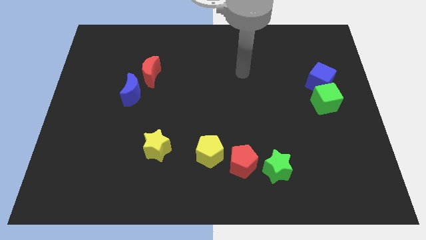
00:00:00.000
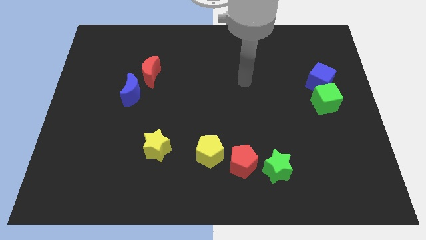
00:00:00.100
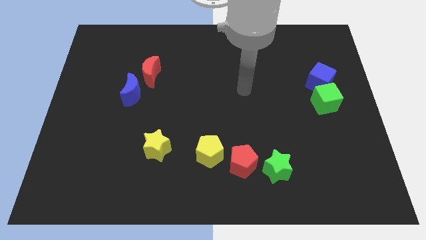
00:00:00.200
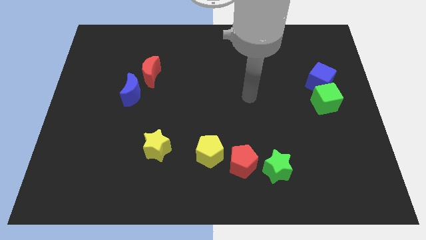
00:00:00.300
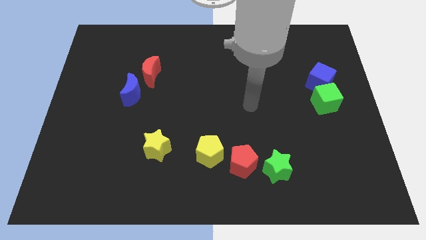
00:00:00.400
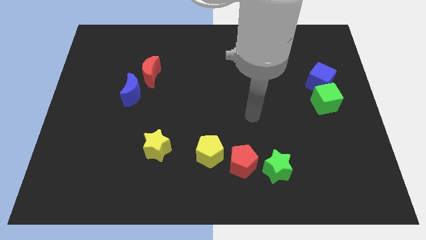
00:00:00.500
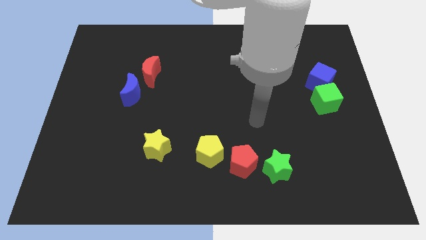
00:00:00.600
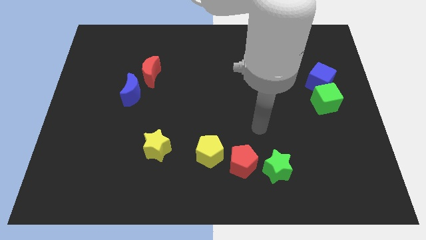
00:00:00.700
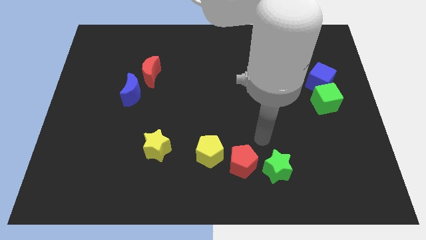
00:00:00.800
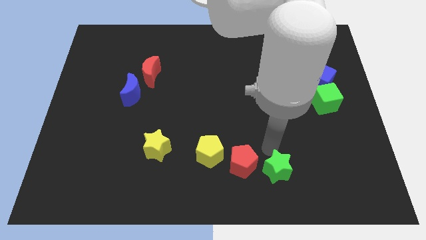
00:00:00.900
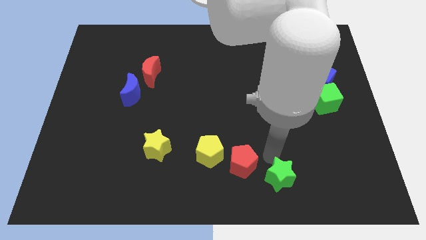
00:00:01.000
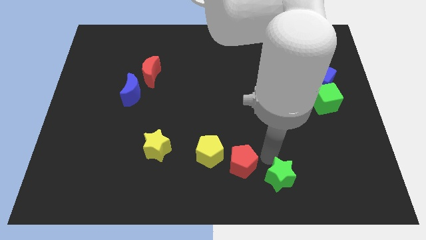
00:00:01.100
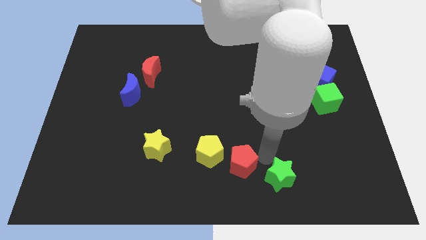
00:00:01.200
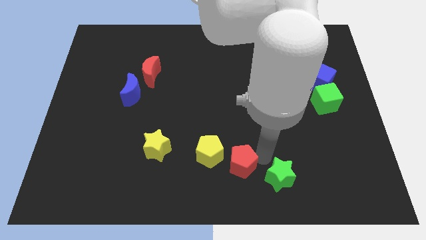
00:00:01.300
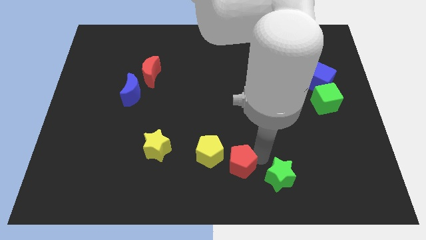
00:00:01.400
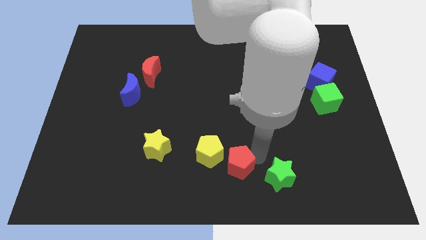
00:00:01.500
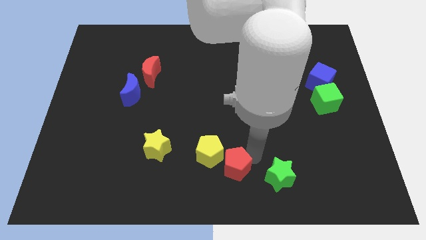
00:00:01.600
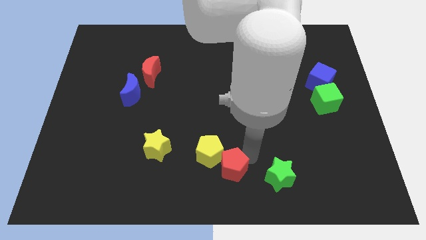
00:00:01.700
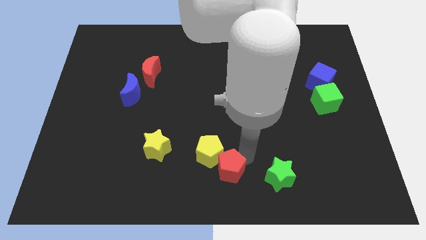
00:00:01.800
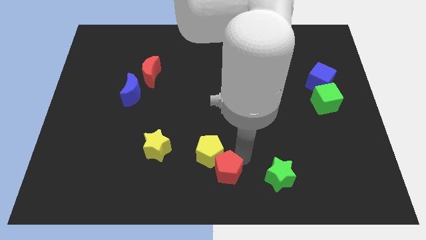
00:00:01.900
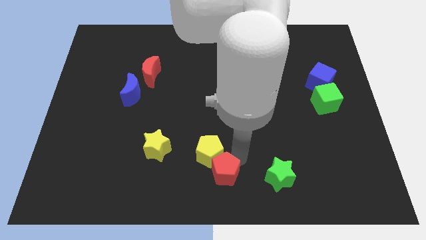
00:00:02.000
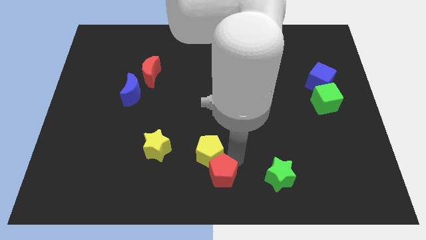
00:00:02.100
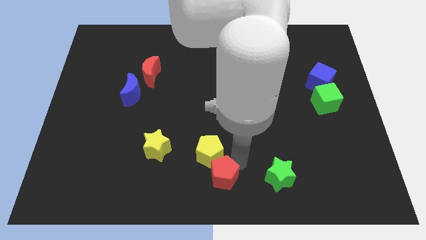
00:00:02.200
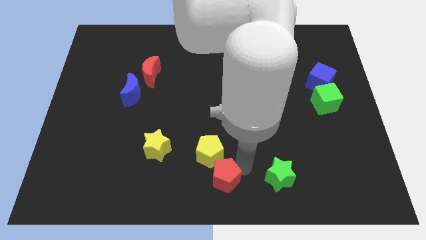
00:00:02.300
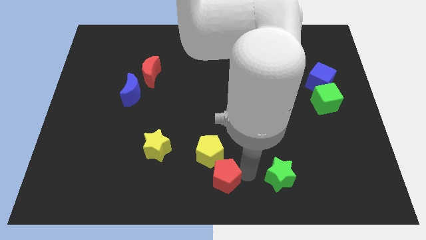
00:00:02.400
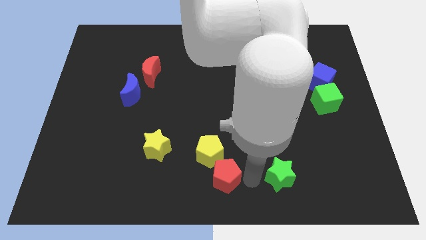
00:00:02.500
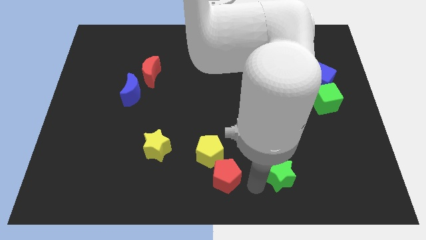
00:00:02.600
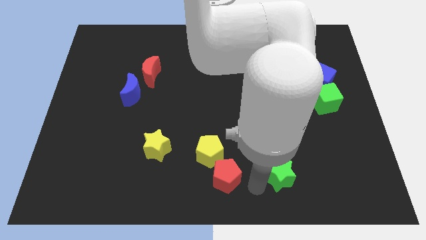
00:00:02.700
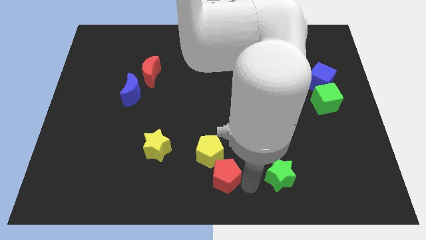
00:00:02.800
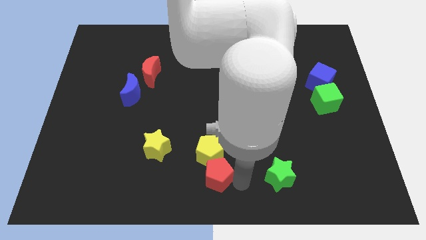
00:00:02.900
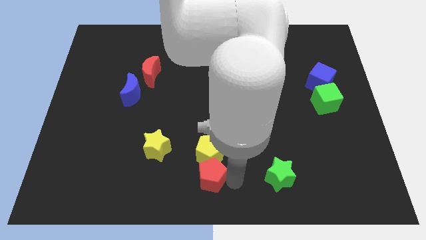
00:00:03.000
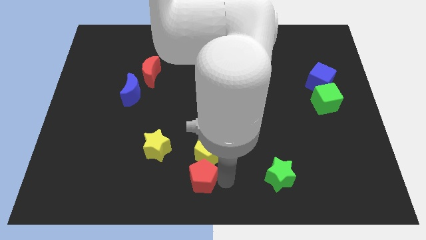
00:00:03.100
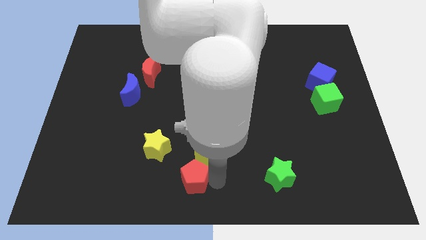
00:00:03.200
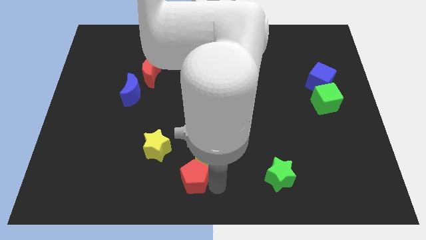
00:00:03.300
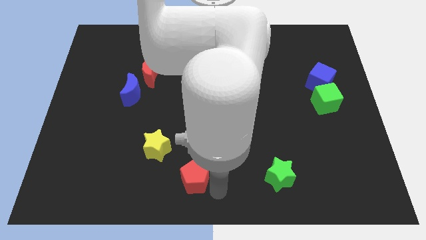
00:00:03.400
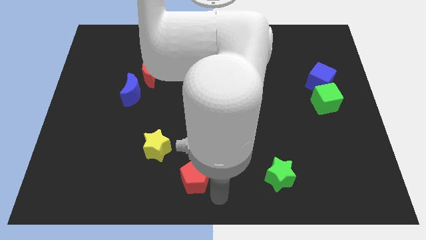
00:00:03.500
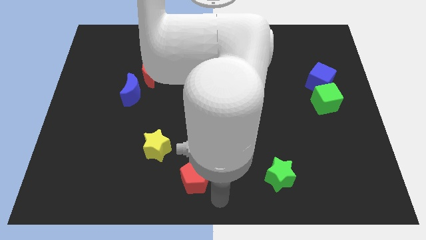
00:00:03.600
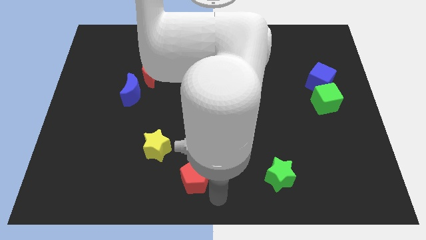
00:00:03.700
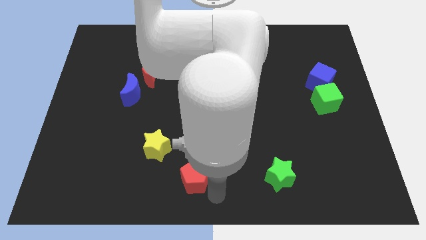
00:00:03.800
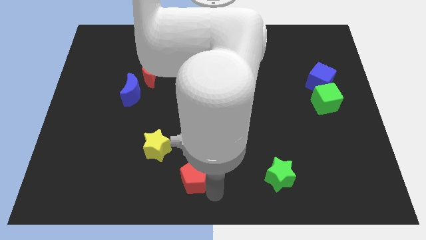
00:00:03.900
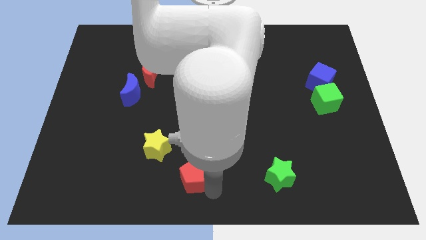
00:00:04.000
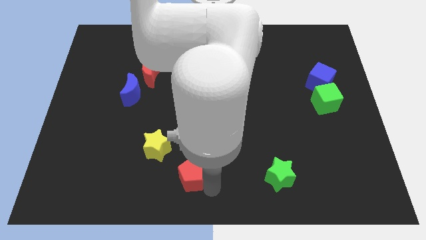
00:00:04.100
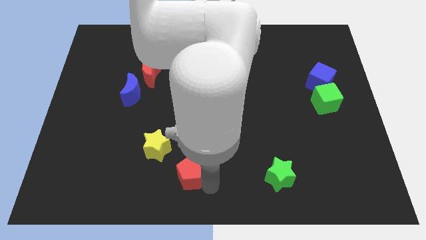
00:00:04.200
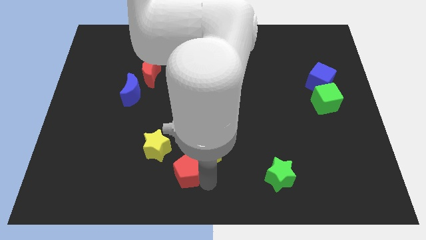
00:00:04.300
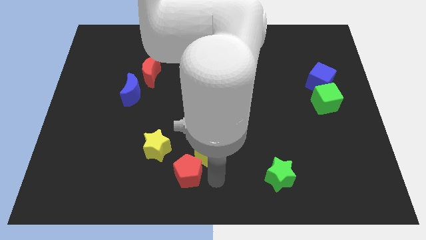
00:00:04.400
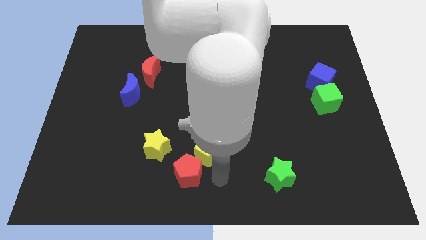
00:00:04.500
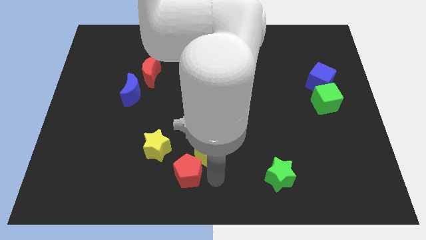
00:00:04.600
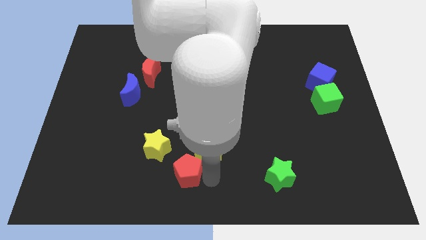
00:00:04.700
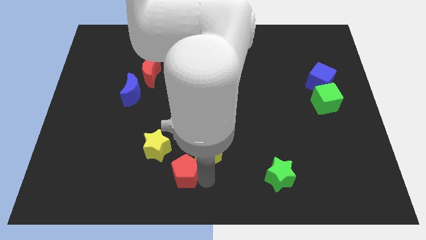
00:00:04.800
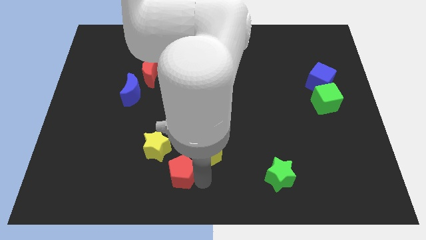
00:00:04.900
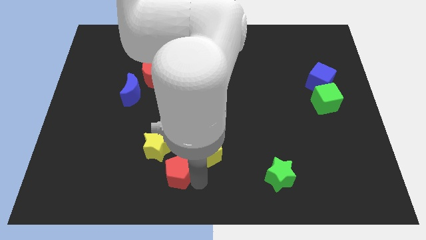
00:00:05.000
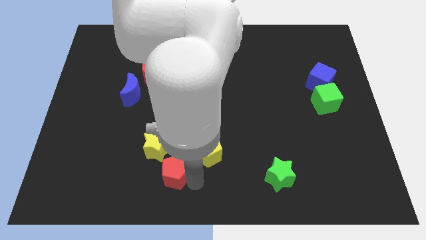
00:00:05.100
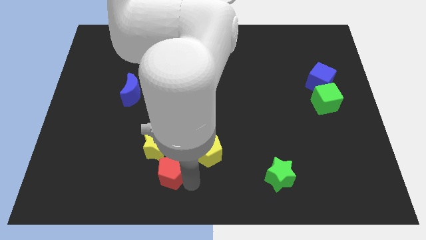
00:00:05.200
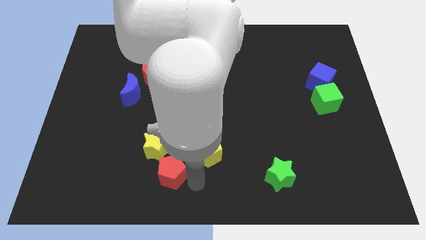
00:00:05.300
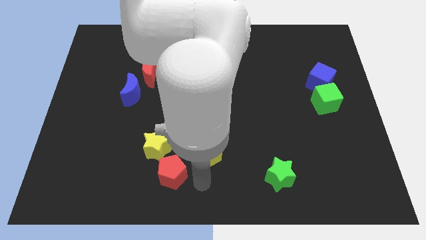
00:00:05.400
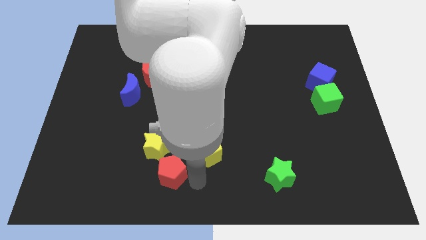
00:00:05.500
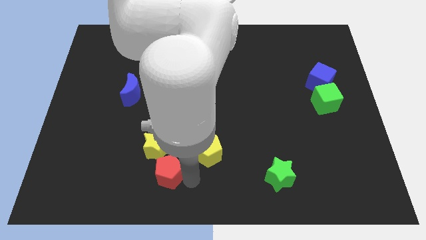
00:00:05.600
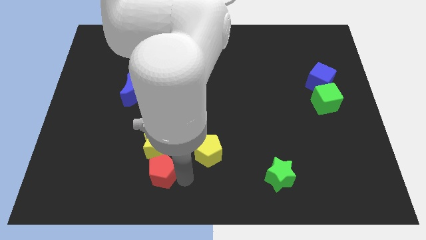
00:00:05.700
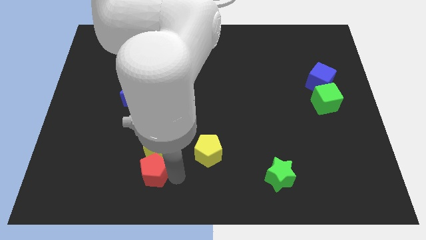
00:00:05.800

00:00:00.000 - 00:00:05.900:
move the red pentagon diagonally down and to the left of the yellow star
